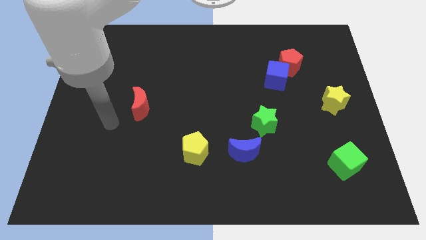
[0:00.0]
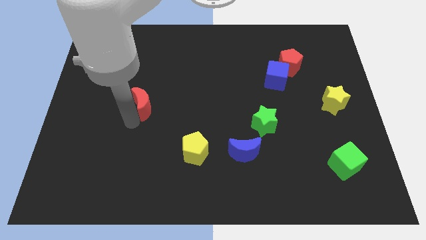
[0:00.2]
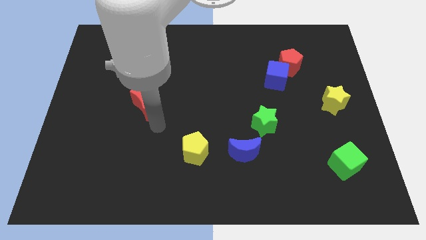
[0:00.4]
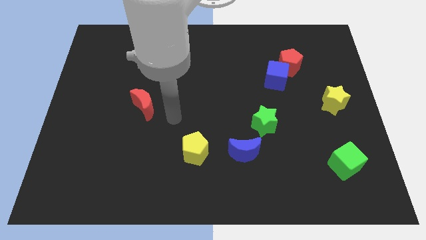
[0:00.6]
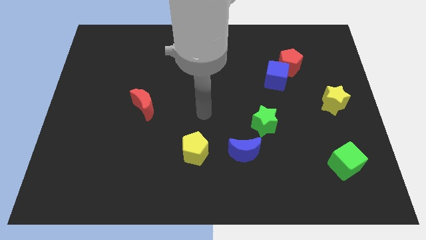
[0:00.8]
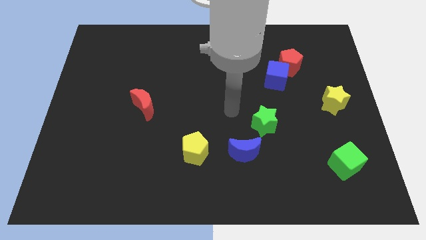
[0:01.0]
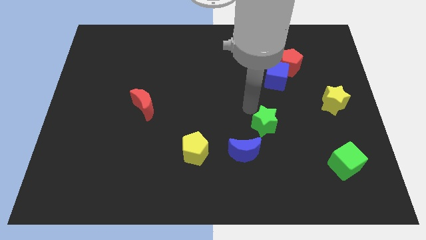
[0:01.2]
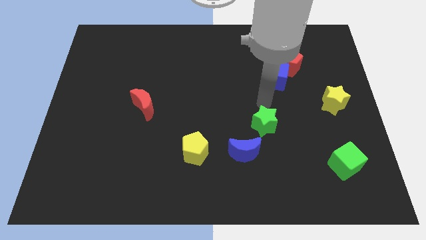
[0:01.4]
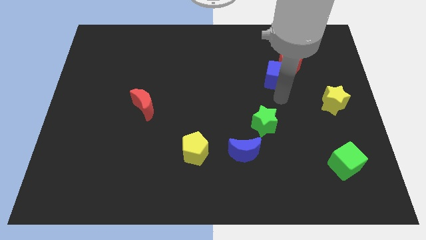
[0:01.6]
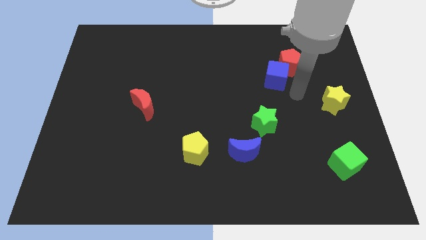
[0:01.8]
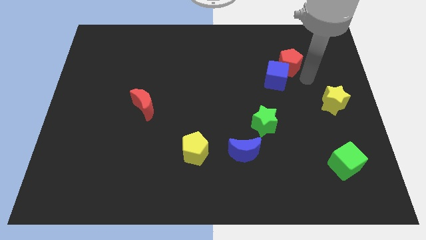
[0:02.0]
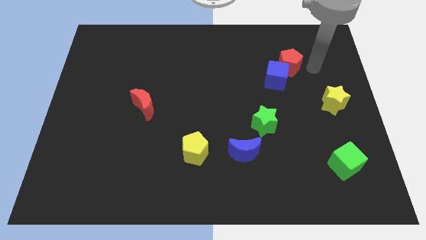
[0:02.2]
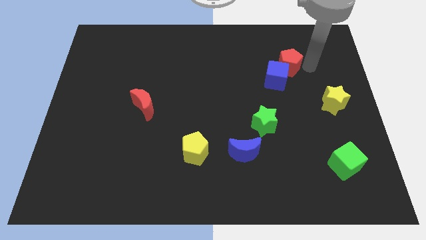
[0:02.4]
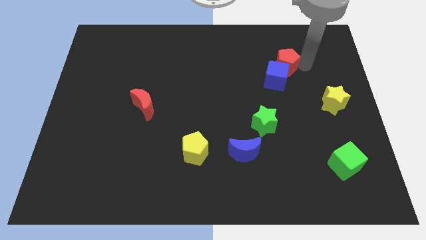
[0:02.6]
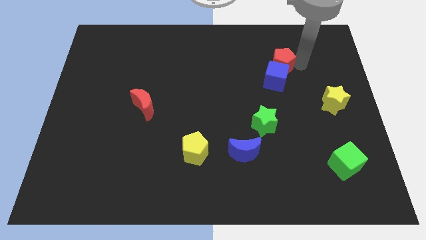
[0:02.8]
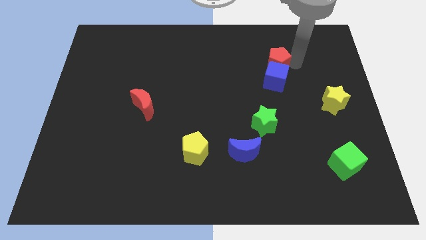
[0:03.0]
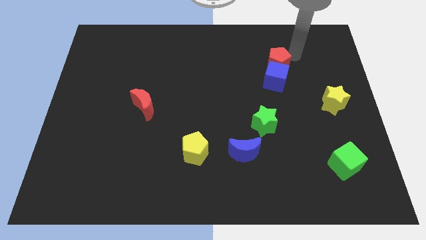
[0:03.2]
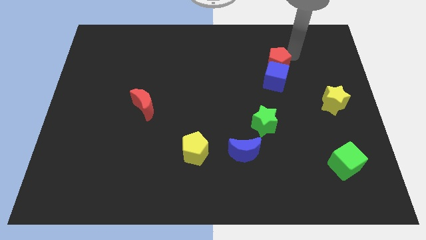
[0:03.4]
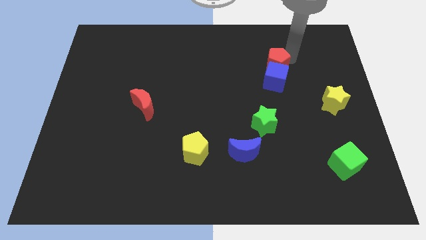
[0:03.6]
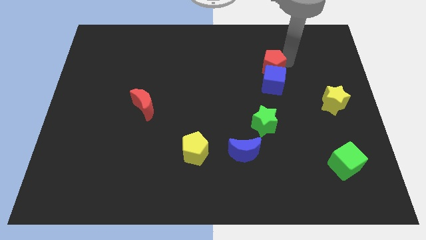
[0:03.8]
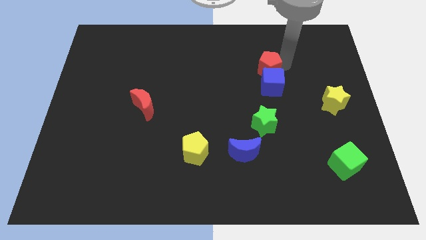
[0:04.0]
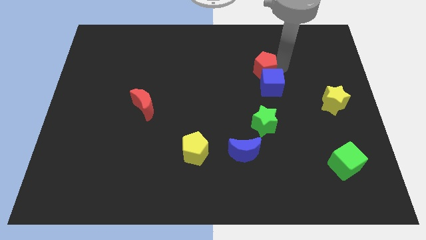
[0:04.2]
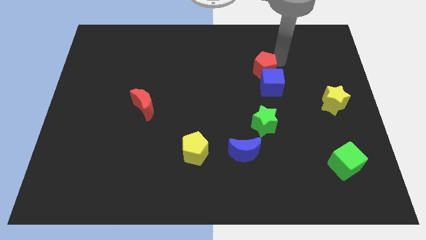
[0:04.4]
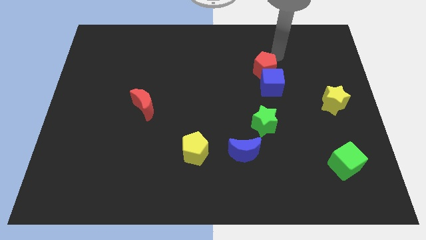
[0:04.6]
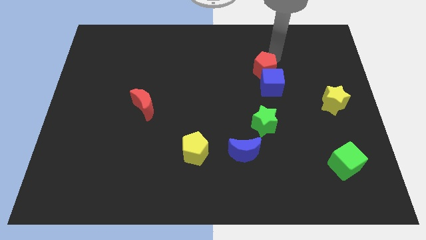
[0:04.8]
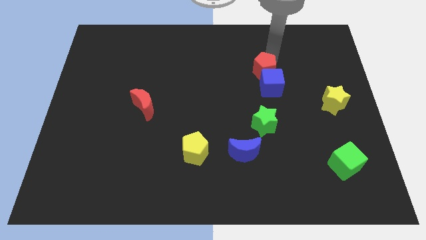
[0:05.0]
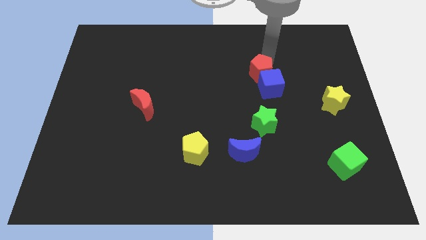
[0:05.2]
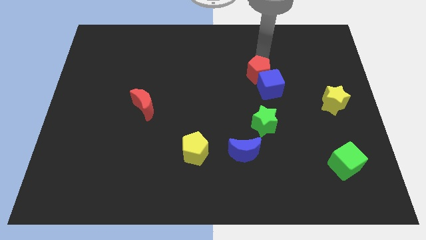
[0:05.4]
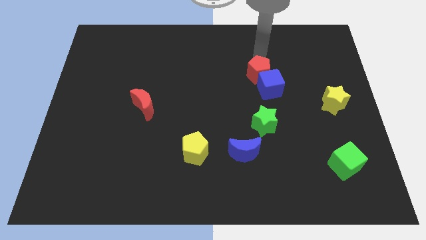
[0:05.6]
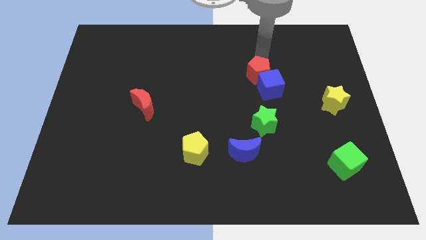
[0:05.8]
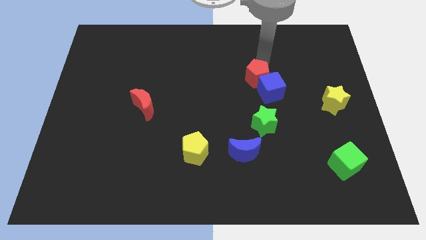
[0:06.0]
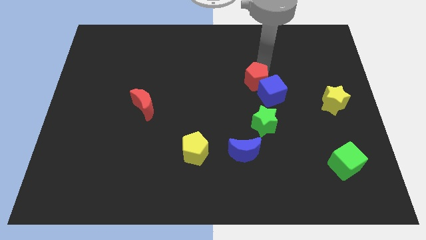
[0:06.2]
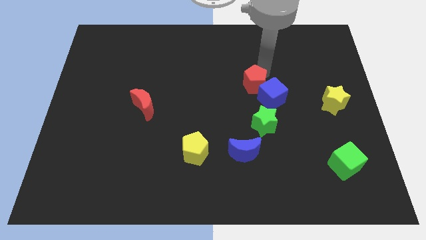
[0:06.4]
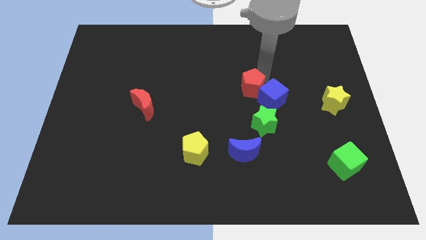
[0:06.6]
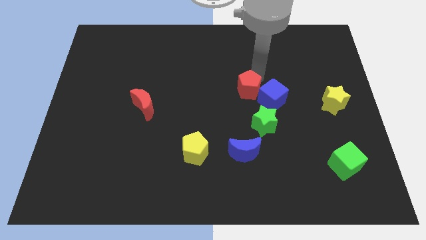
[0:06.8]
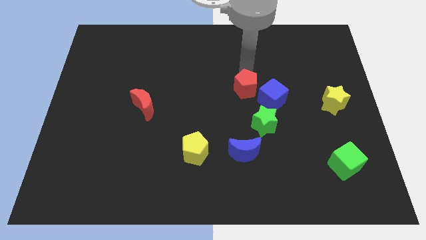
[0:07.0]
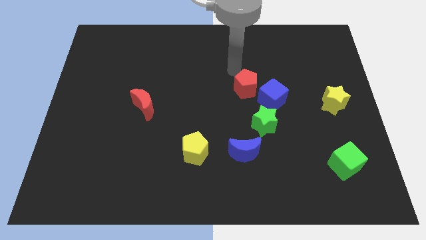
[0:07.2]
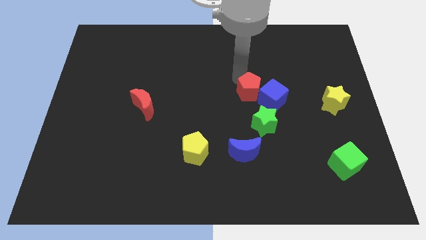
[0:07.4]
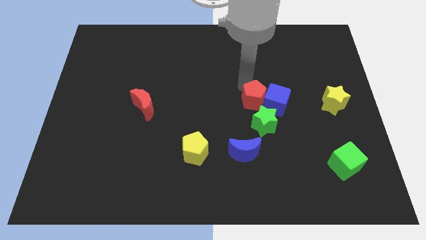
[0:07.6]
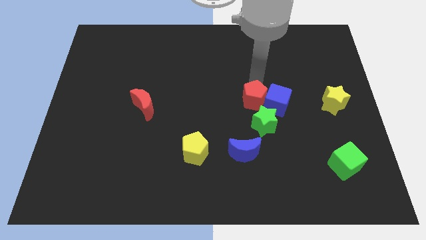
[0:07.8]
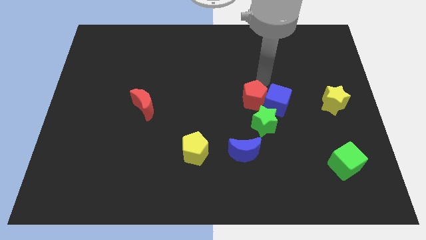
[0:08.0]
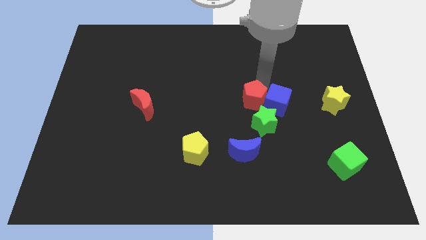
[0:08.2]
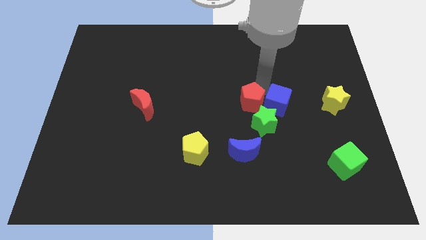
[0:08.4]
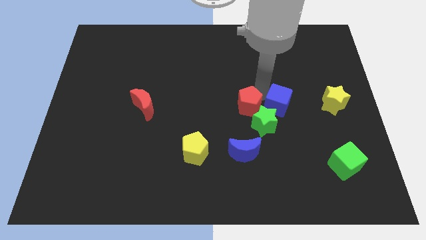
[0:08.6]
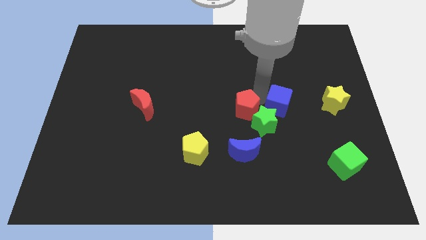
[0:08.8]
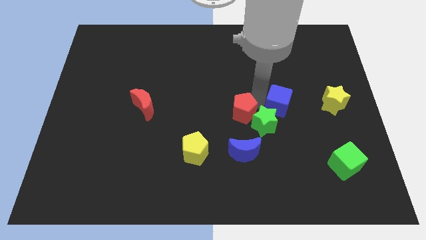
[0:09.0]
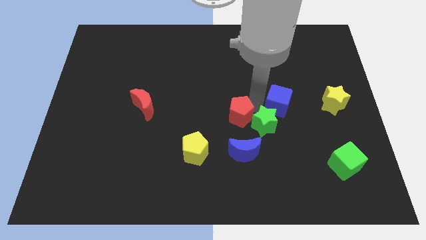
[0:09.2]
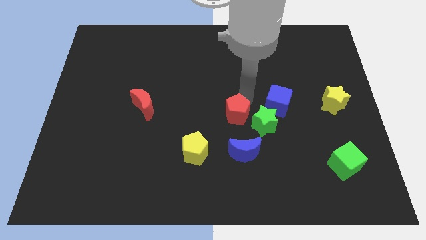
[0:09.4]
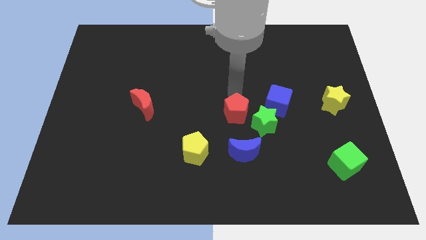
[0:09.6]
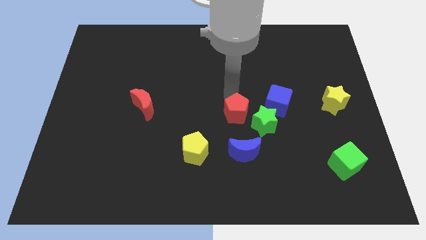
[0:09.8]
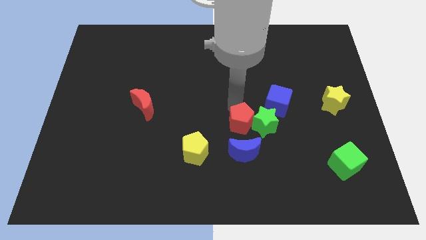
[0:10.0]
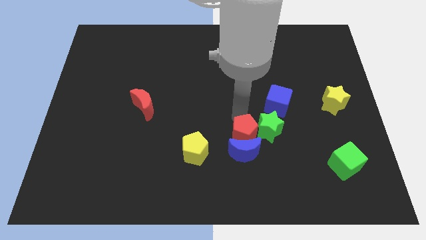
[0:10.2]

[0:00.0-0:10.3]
put the red pentagon next to the blue moon
